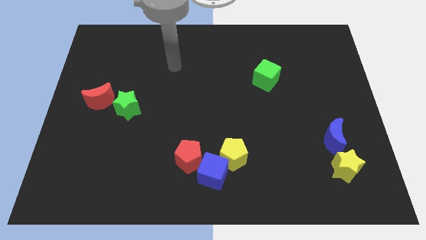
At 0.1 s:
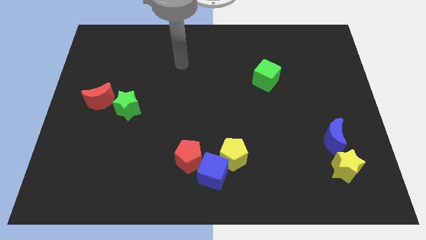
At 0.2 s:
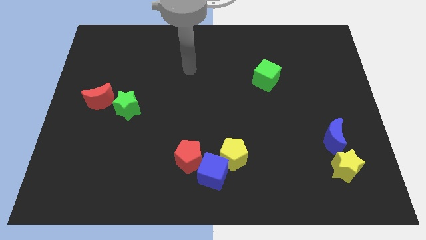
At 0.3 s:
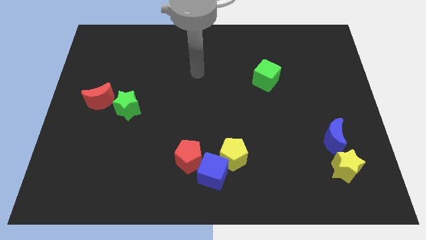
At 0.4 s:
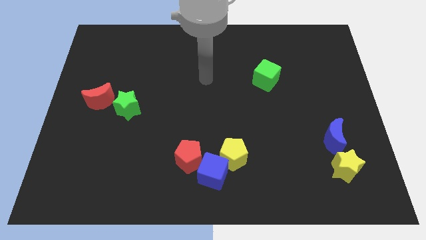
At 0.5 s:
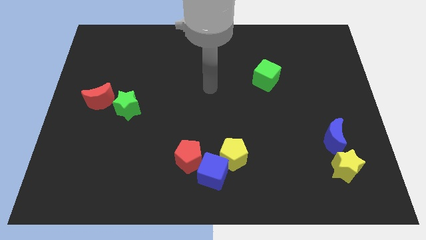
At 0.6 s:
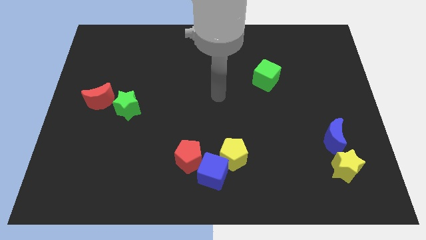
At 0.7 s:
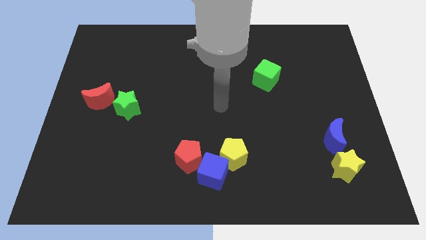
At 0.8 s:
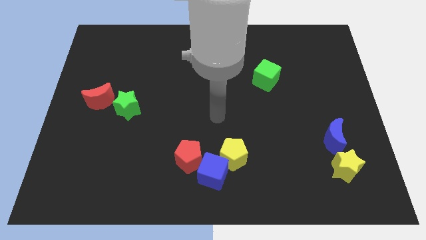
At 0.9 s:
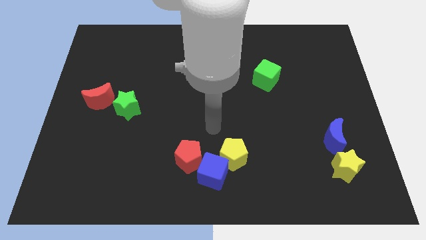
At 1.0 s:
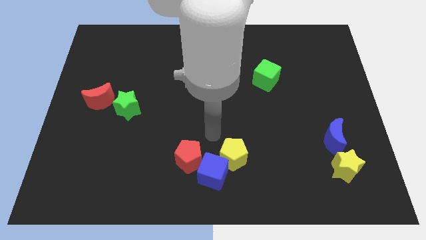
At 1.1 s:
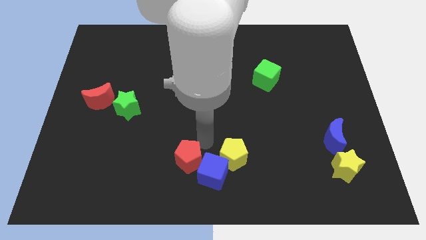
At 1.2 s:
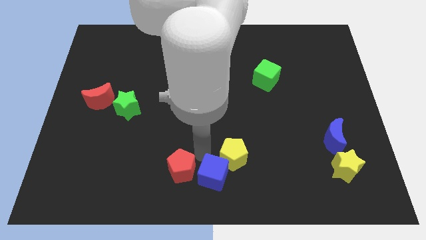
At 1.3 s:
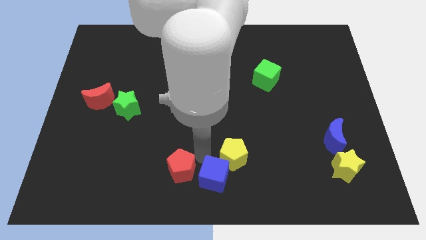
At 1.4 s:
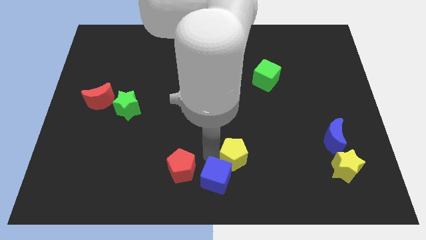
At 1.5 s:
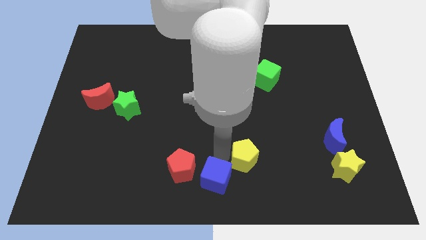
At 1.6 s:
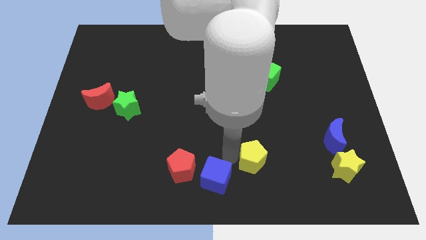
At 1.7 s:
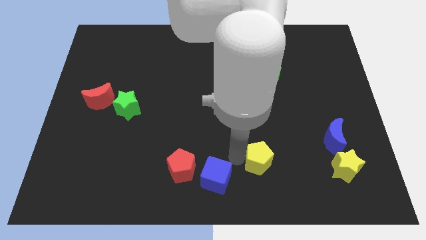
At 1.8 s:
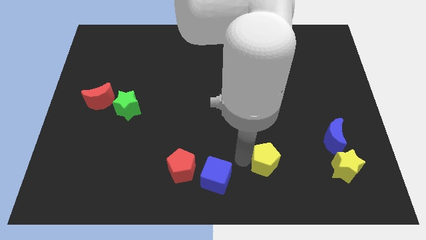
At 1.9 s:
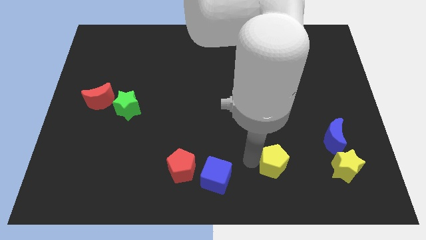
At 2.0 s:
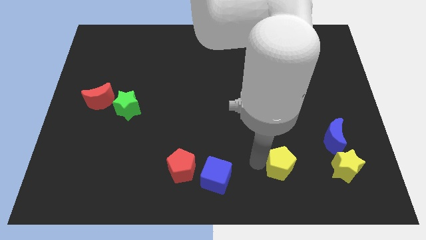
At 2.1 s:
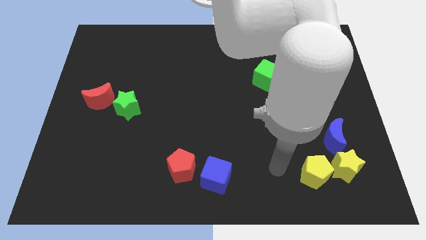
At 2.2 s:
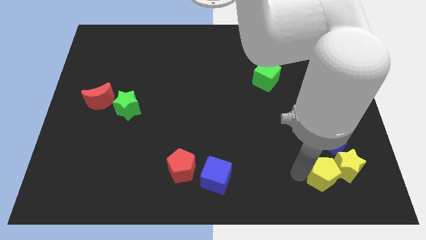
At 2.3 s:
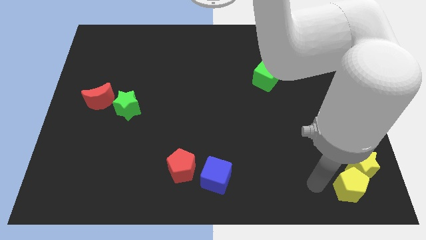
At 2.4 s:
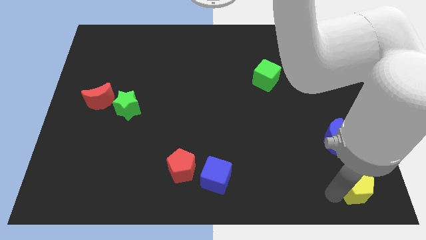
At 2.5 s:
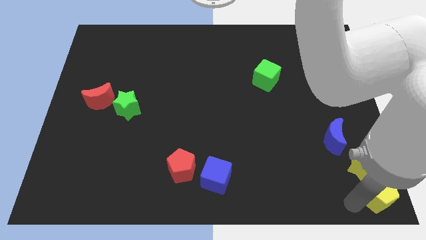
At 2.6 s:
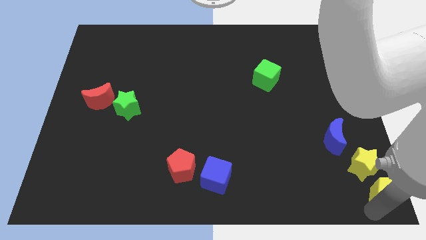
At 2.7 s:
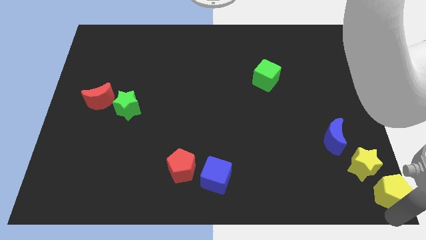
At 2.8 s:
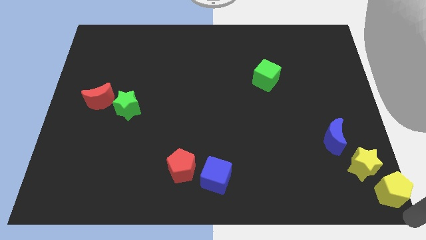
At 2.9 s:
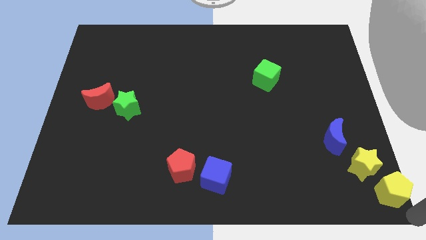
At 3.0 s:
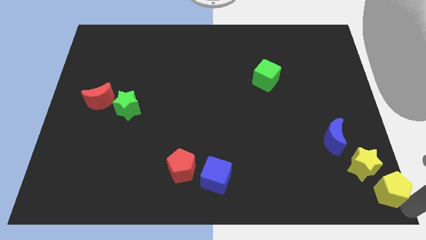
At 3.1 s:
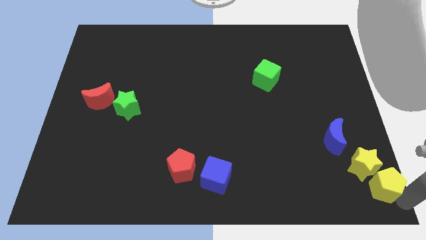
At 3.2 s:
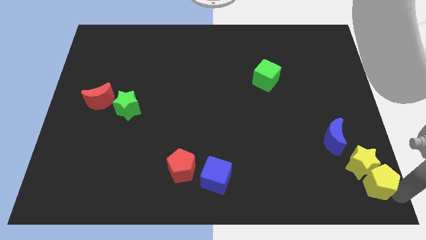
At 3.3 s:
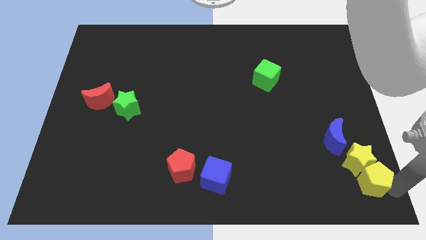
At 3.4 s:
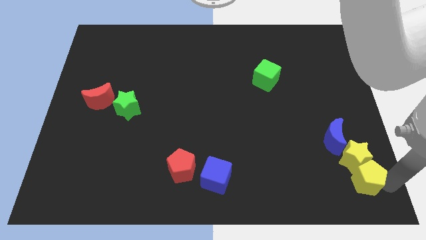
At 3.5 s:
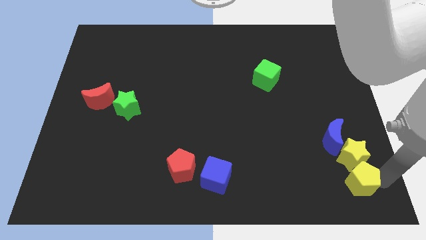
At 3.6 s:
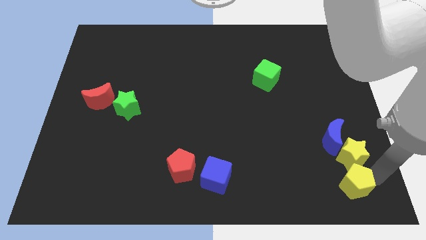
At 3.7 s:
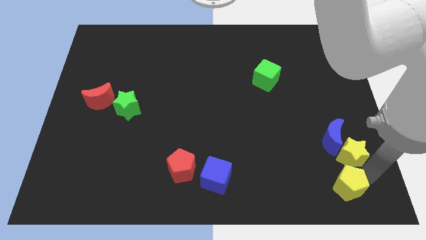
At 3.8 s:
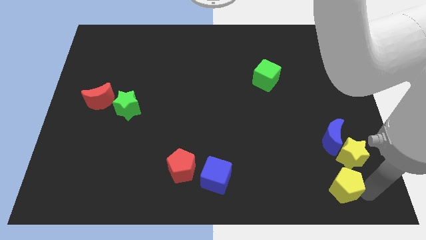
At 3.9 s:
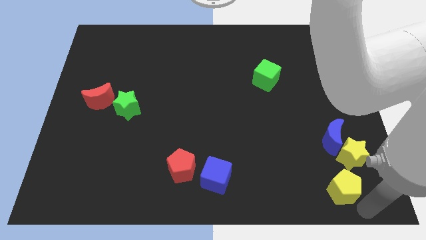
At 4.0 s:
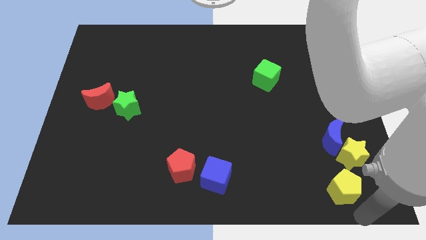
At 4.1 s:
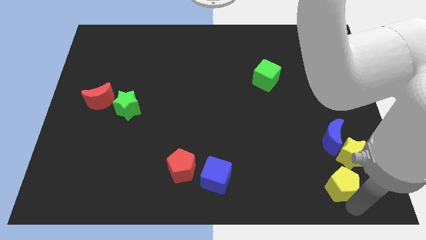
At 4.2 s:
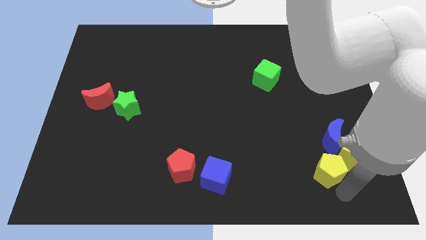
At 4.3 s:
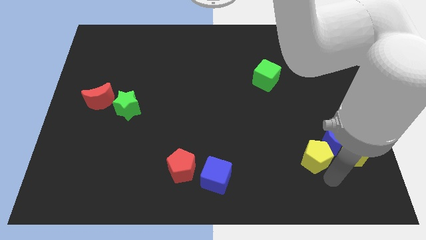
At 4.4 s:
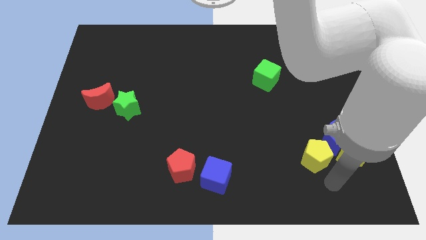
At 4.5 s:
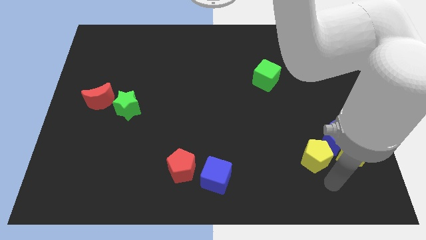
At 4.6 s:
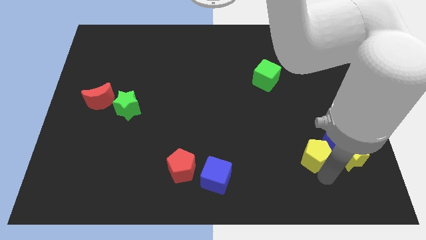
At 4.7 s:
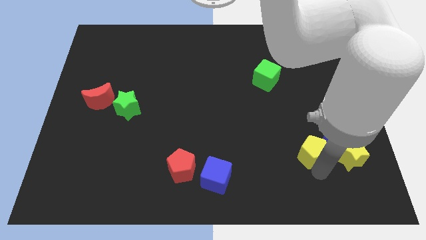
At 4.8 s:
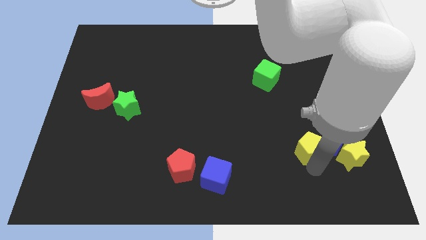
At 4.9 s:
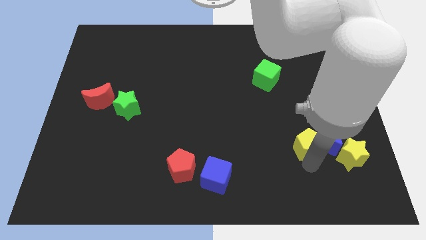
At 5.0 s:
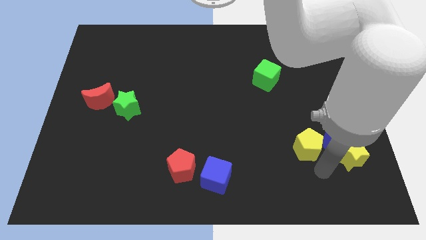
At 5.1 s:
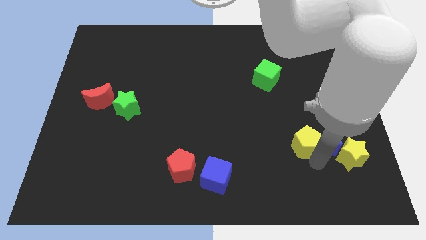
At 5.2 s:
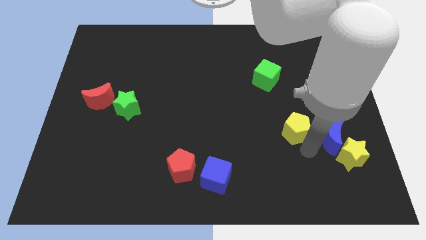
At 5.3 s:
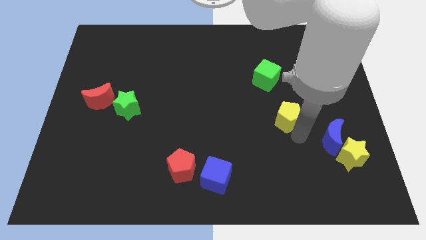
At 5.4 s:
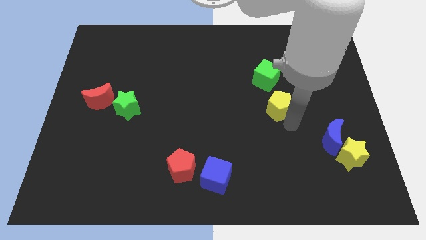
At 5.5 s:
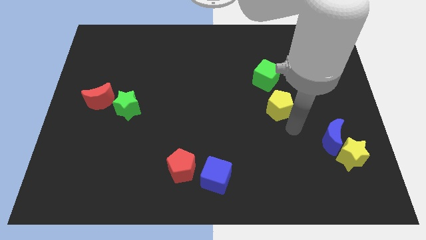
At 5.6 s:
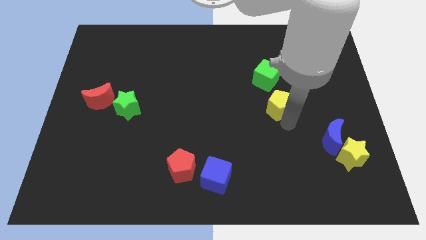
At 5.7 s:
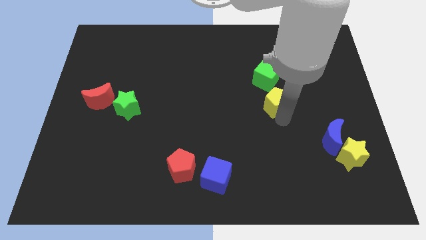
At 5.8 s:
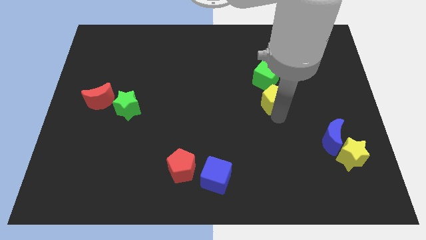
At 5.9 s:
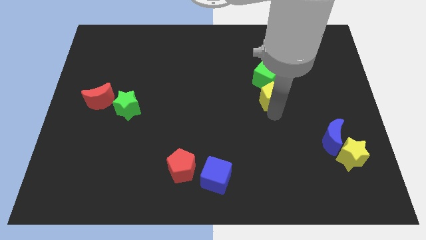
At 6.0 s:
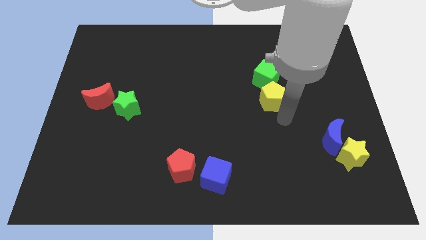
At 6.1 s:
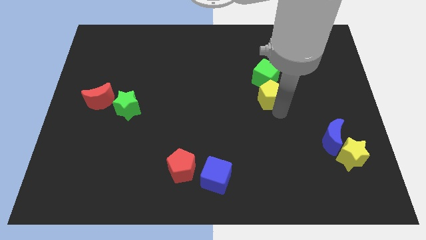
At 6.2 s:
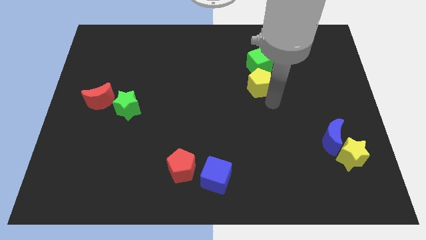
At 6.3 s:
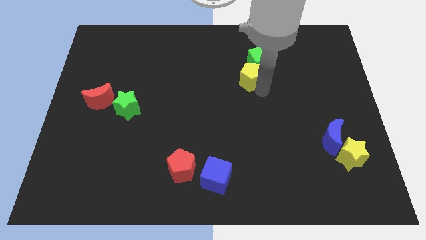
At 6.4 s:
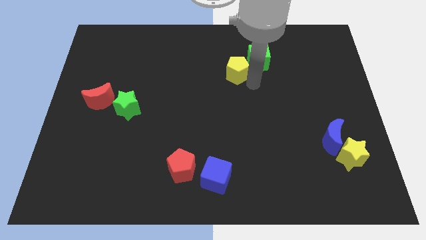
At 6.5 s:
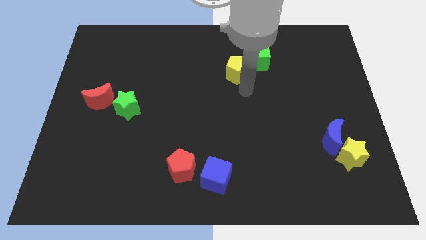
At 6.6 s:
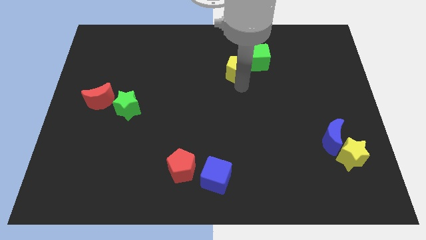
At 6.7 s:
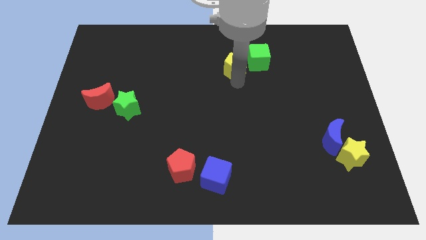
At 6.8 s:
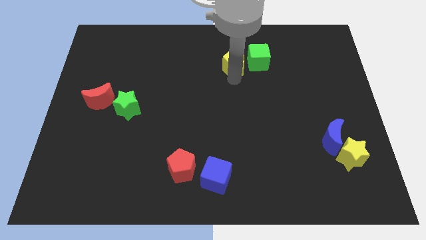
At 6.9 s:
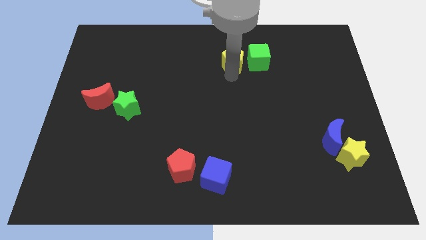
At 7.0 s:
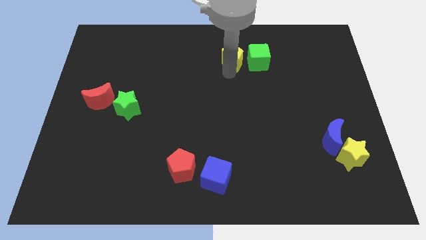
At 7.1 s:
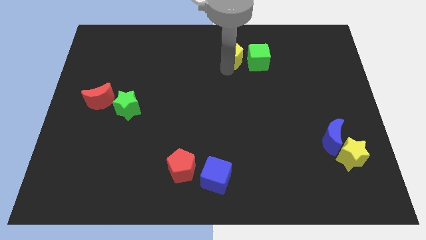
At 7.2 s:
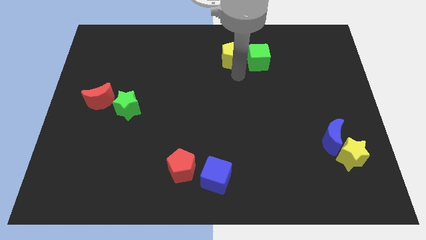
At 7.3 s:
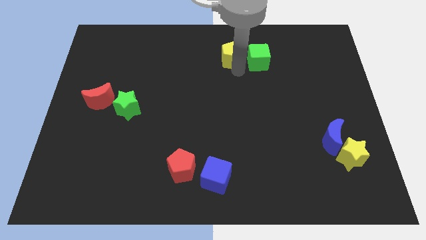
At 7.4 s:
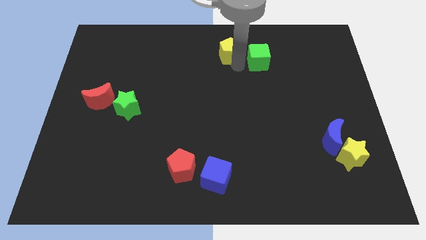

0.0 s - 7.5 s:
slide the yellow pentagon to the top
